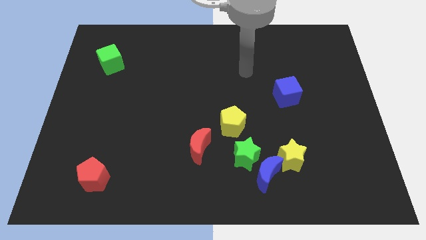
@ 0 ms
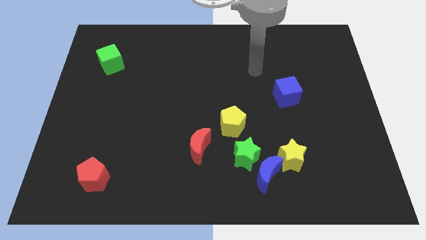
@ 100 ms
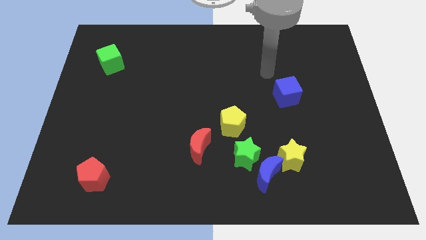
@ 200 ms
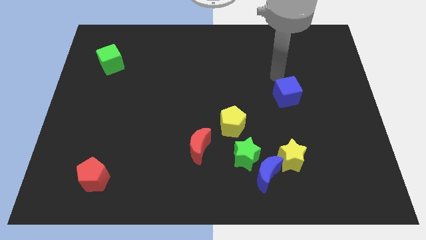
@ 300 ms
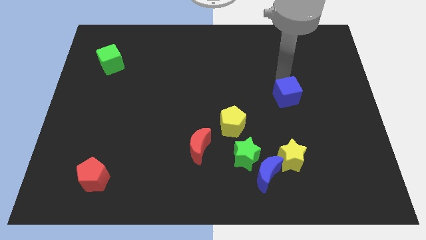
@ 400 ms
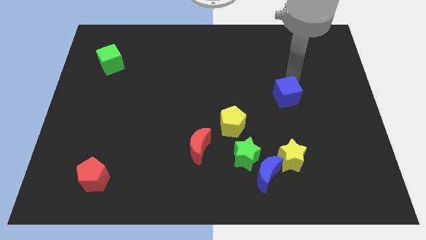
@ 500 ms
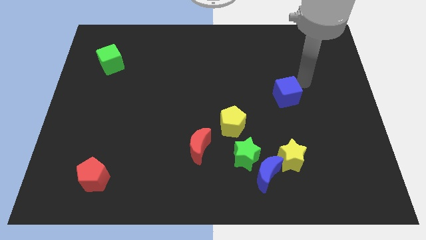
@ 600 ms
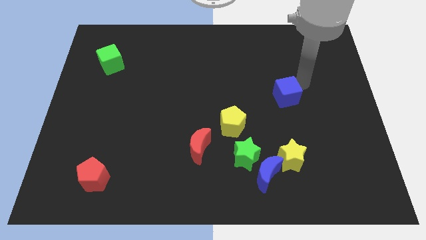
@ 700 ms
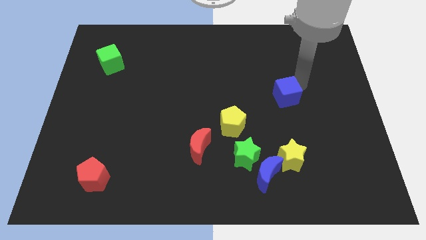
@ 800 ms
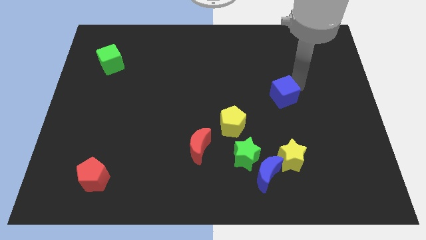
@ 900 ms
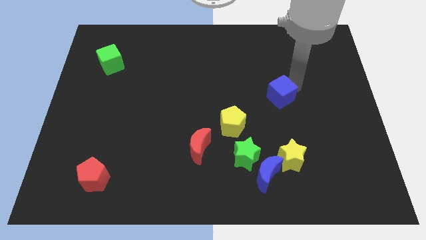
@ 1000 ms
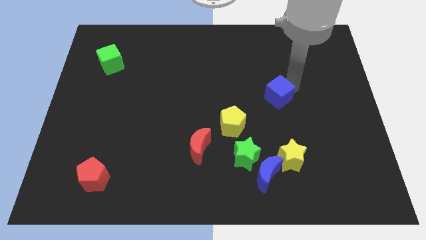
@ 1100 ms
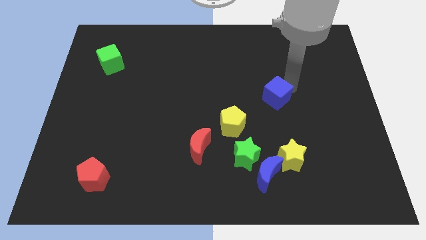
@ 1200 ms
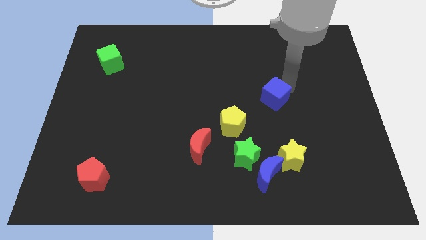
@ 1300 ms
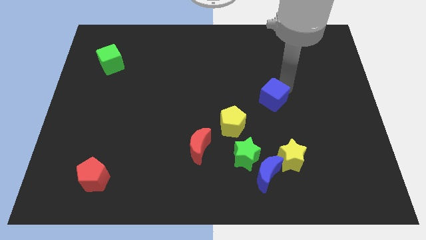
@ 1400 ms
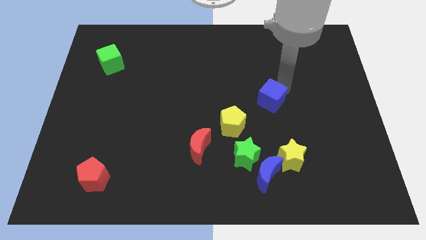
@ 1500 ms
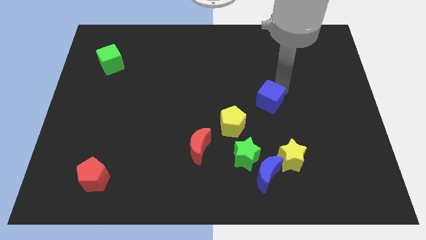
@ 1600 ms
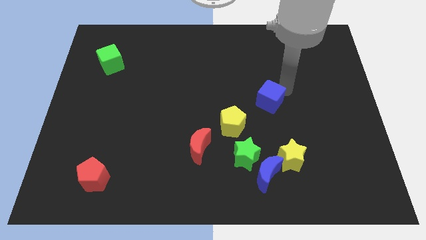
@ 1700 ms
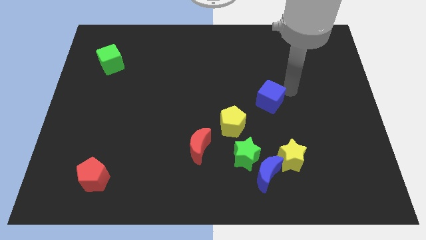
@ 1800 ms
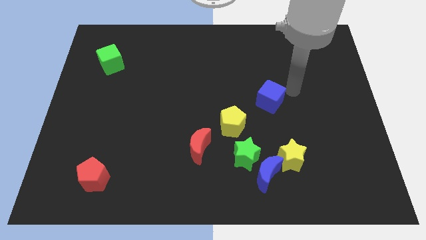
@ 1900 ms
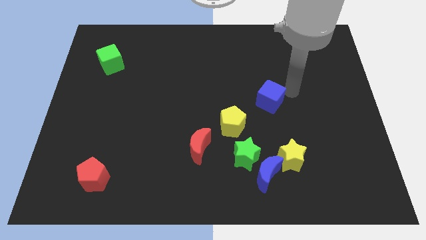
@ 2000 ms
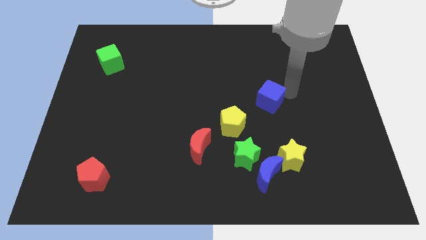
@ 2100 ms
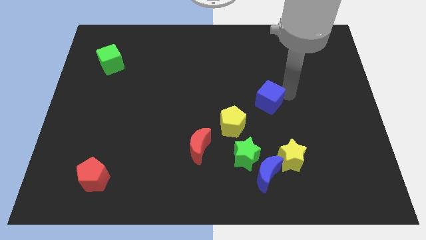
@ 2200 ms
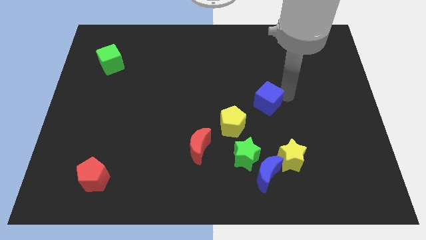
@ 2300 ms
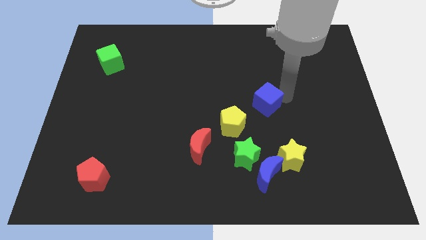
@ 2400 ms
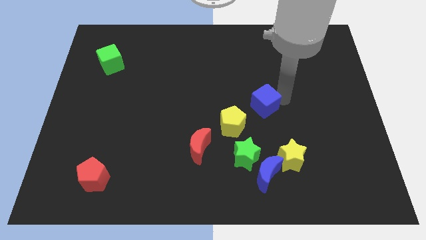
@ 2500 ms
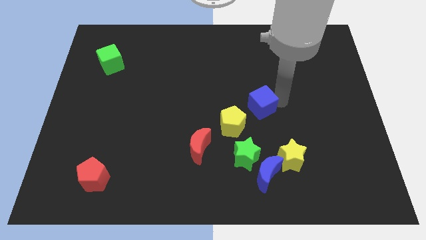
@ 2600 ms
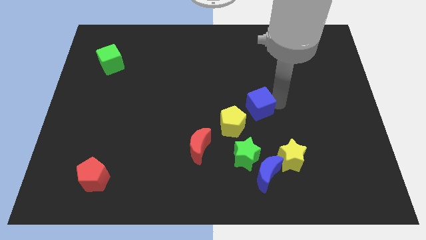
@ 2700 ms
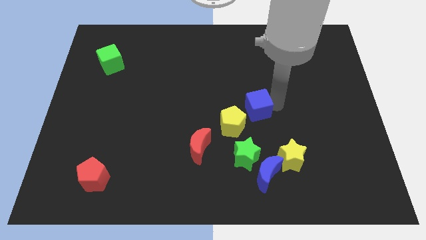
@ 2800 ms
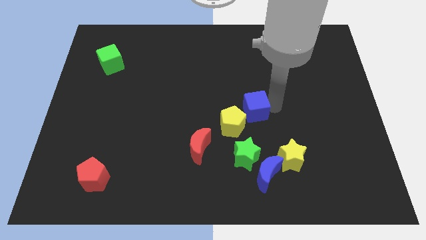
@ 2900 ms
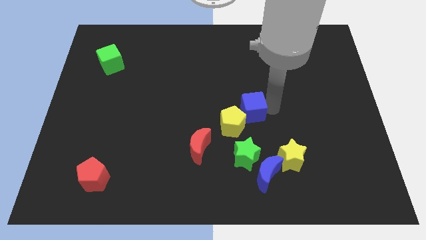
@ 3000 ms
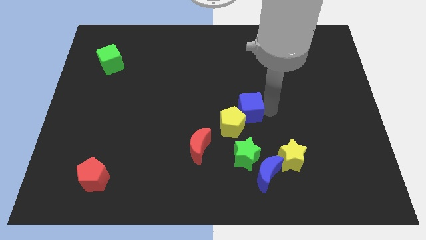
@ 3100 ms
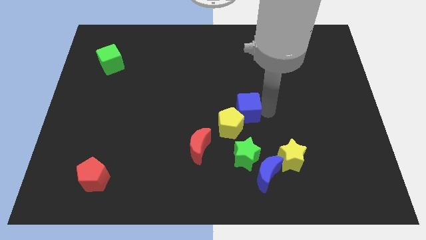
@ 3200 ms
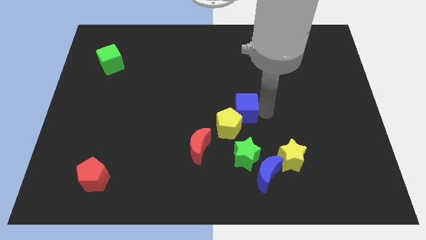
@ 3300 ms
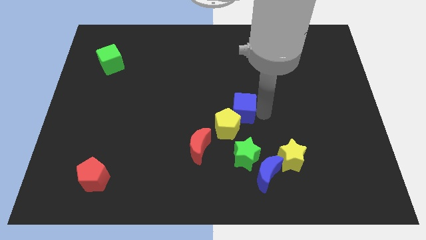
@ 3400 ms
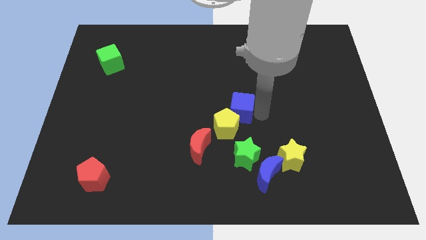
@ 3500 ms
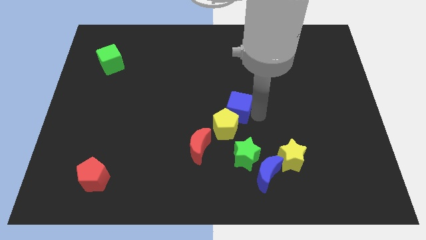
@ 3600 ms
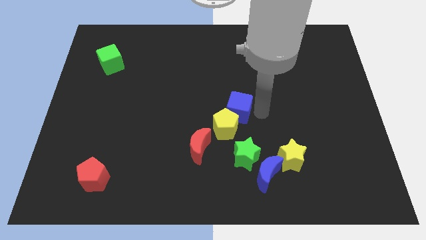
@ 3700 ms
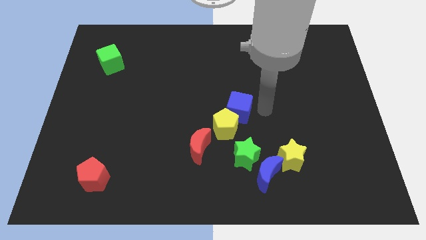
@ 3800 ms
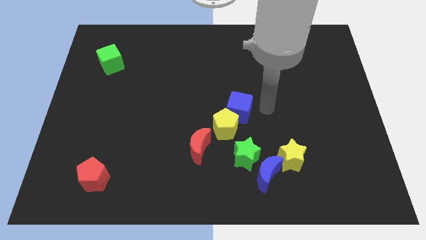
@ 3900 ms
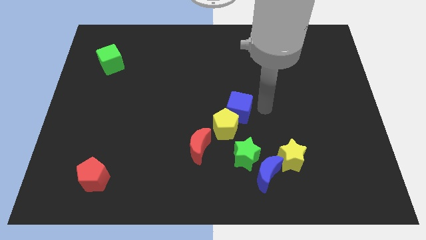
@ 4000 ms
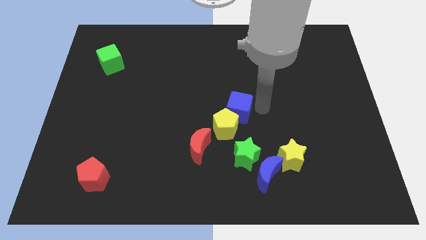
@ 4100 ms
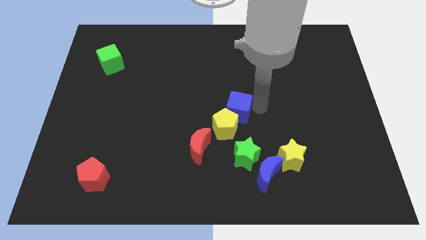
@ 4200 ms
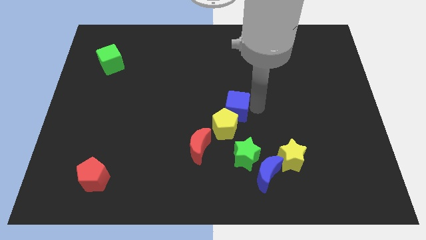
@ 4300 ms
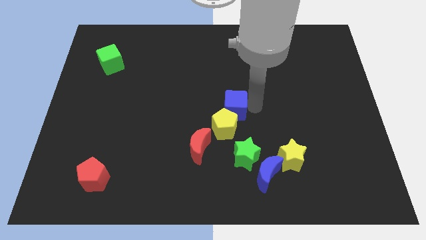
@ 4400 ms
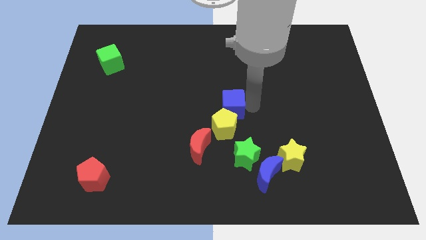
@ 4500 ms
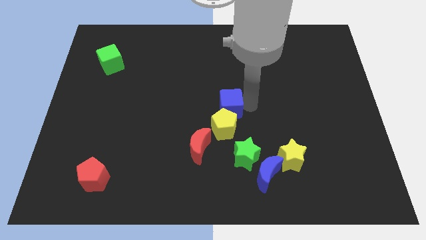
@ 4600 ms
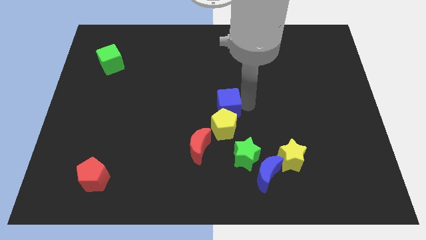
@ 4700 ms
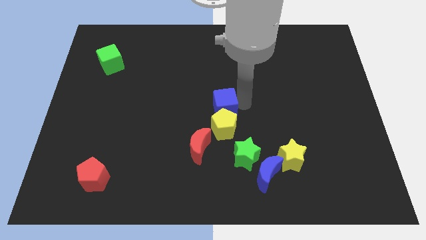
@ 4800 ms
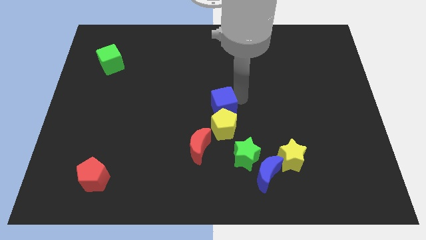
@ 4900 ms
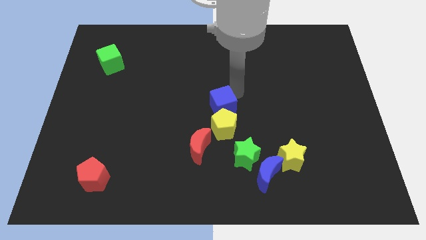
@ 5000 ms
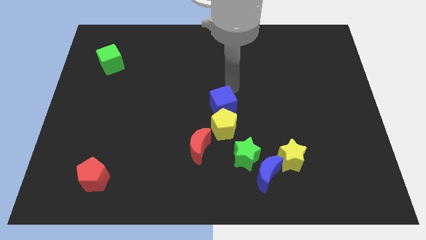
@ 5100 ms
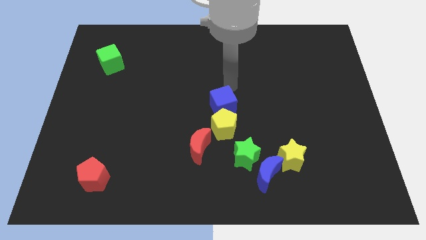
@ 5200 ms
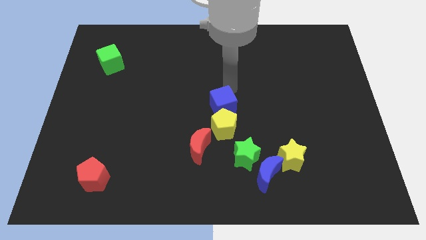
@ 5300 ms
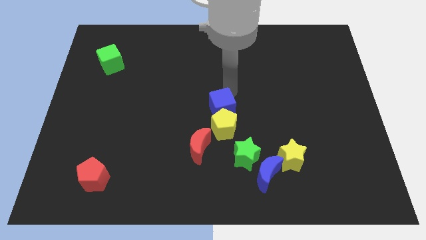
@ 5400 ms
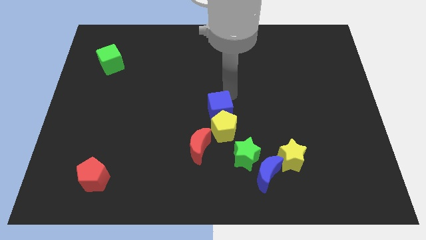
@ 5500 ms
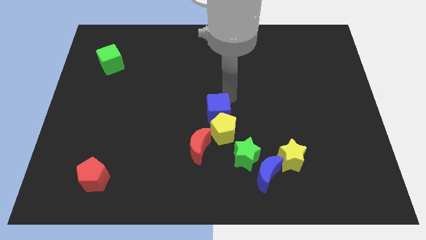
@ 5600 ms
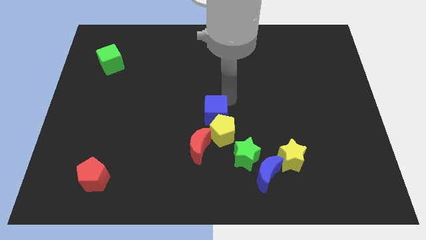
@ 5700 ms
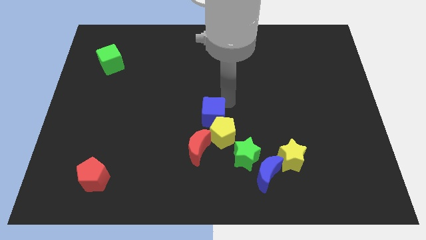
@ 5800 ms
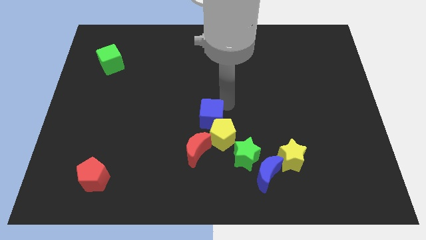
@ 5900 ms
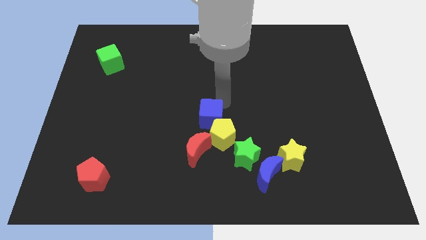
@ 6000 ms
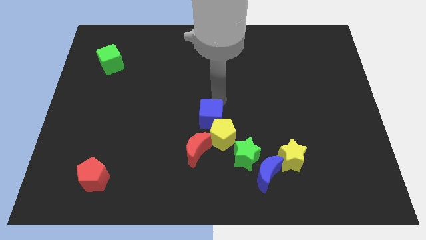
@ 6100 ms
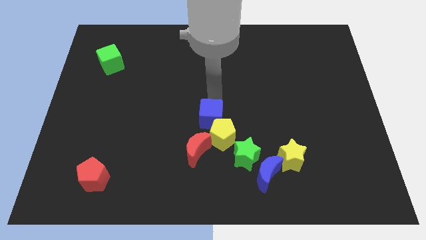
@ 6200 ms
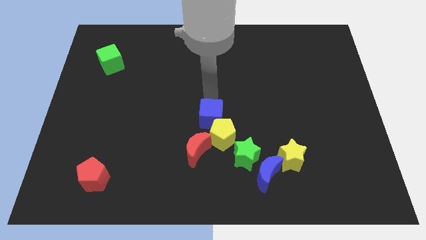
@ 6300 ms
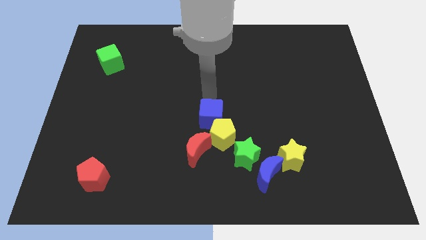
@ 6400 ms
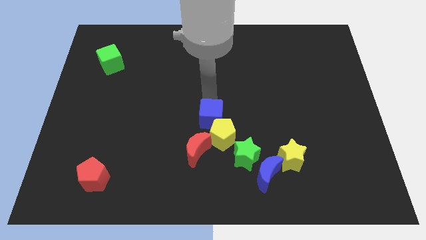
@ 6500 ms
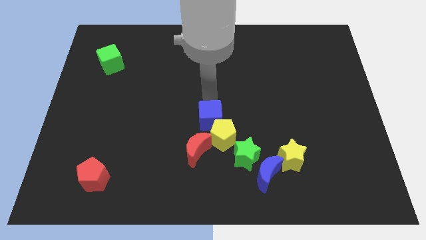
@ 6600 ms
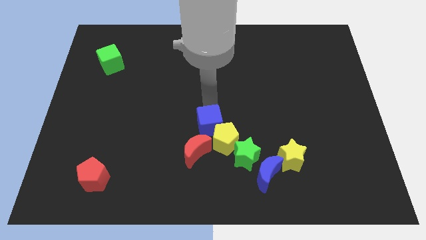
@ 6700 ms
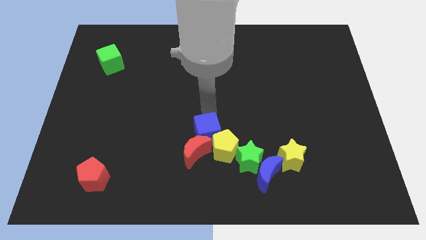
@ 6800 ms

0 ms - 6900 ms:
move the blue cube down and then to the left

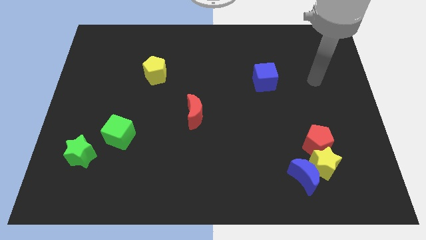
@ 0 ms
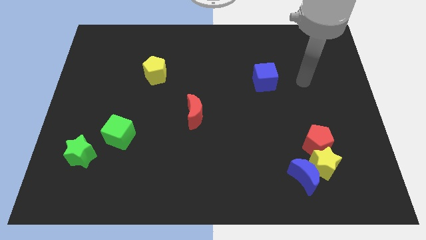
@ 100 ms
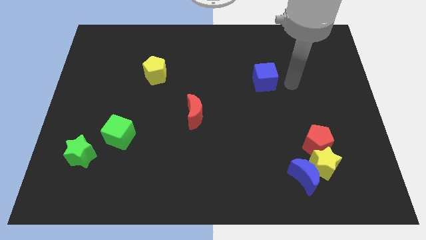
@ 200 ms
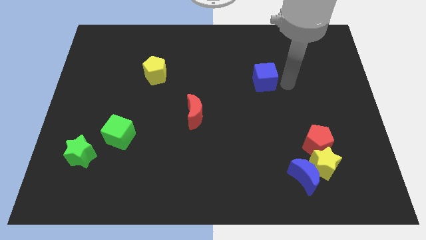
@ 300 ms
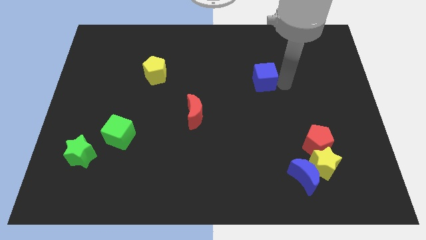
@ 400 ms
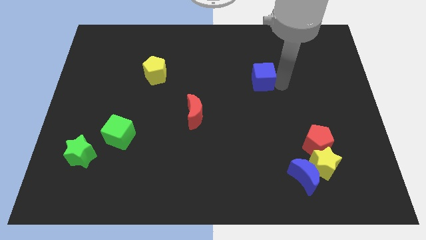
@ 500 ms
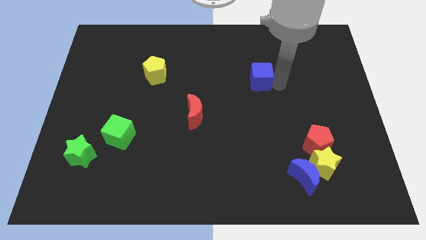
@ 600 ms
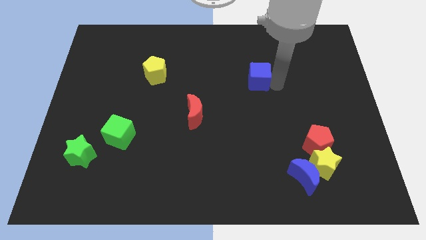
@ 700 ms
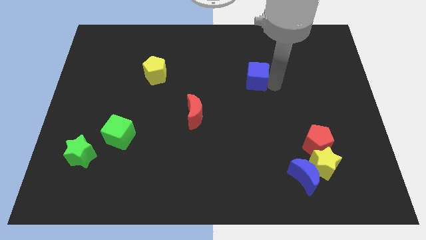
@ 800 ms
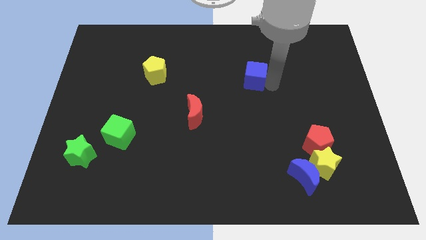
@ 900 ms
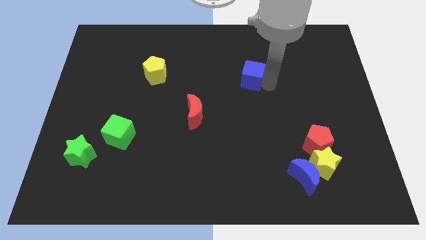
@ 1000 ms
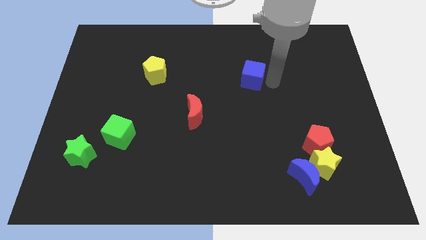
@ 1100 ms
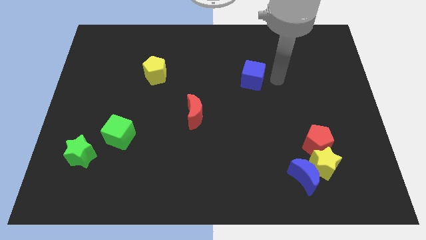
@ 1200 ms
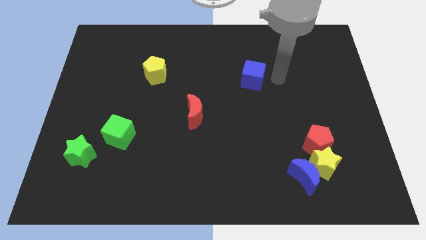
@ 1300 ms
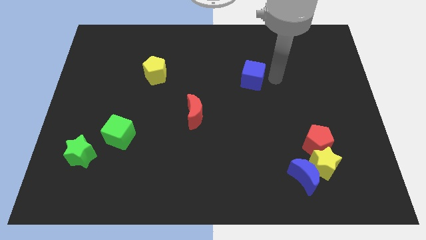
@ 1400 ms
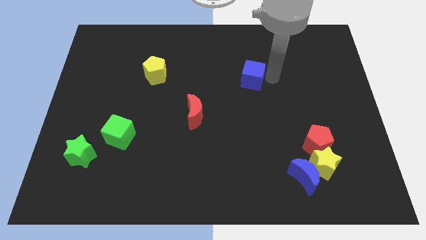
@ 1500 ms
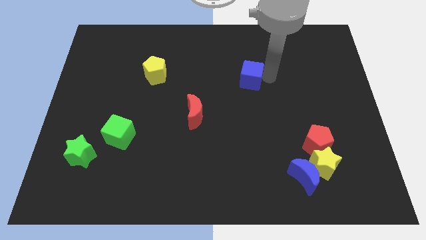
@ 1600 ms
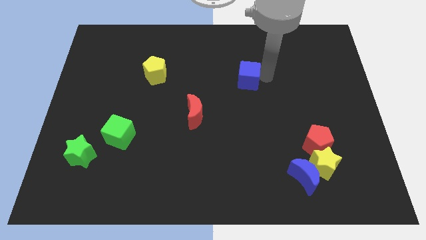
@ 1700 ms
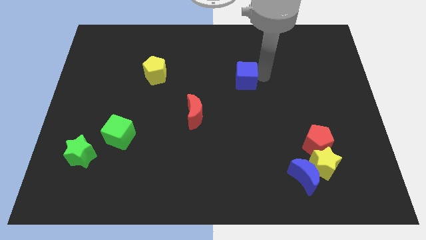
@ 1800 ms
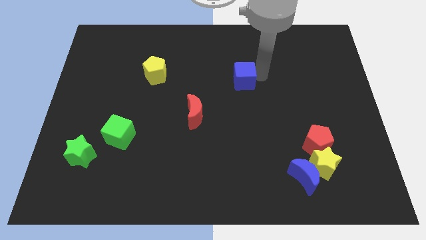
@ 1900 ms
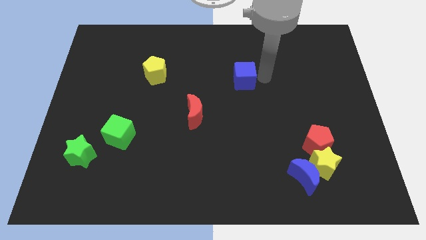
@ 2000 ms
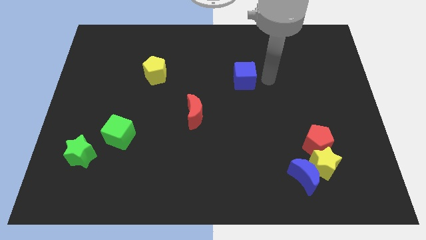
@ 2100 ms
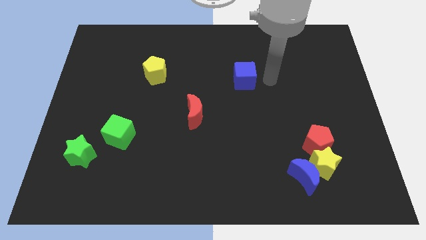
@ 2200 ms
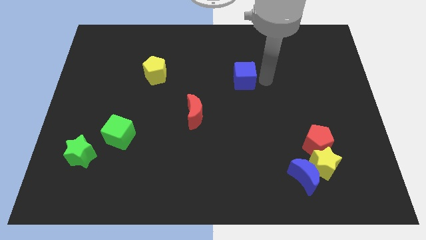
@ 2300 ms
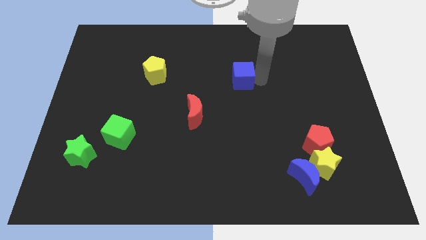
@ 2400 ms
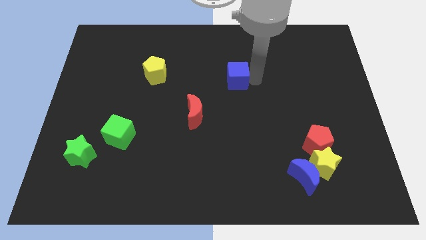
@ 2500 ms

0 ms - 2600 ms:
slightly slide the blue cube to the left
